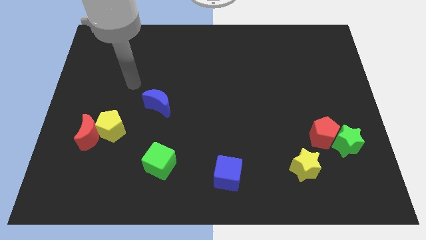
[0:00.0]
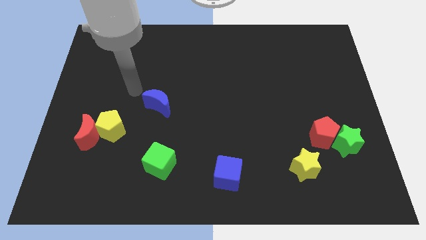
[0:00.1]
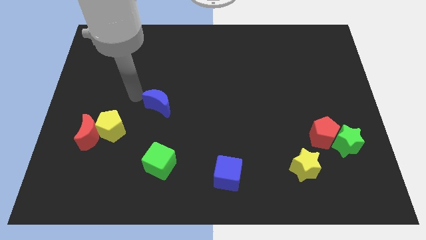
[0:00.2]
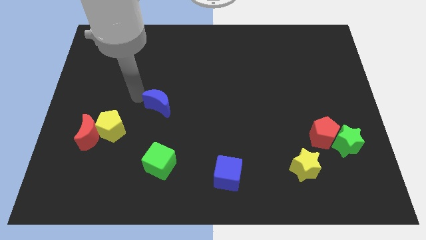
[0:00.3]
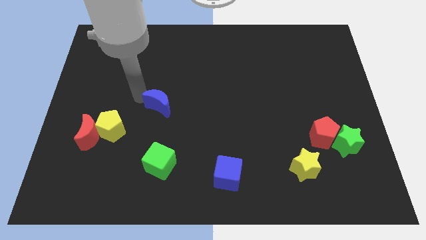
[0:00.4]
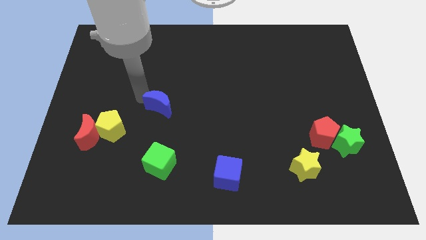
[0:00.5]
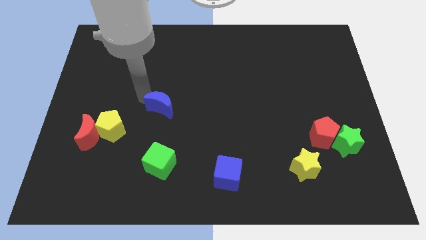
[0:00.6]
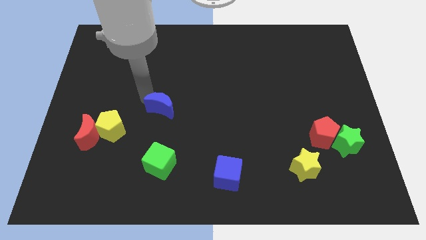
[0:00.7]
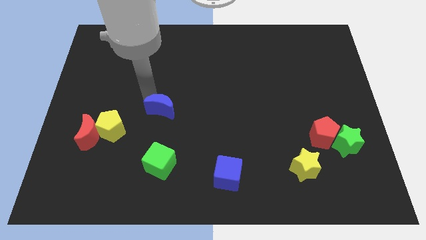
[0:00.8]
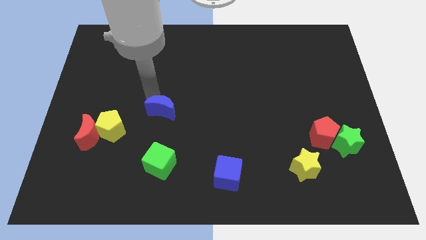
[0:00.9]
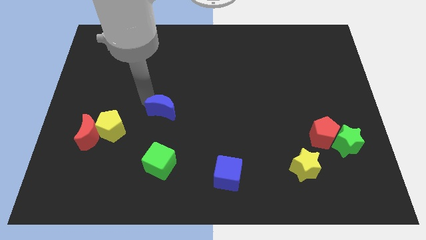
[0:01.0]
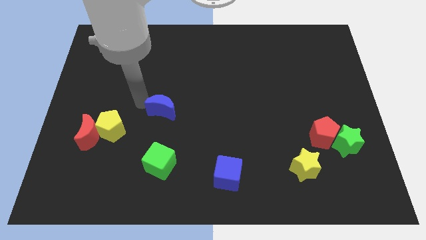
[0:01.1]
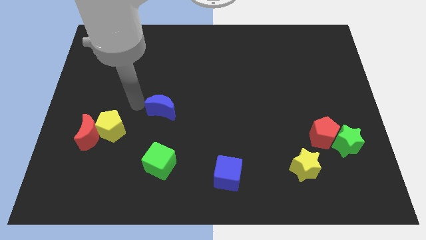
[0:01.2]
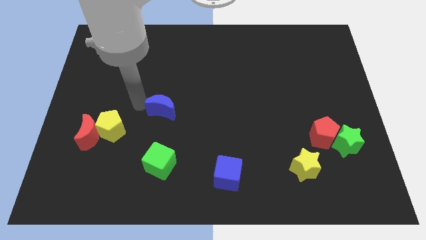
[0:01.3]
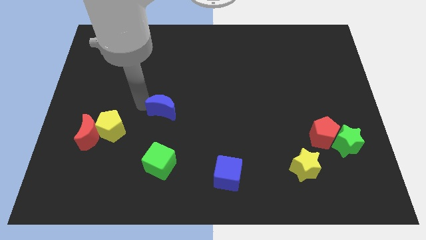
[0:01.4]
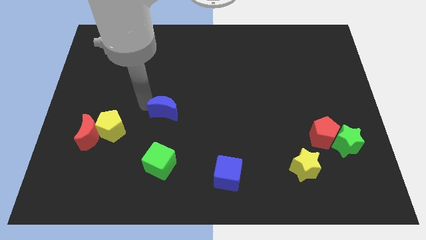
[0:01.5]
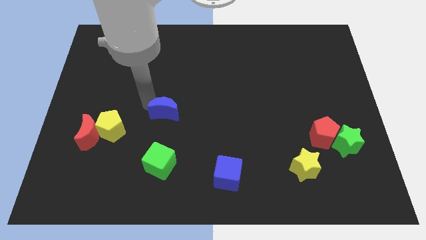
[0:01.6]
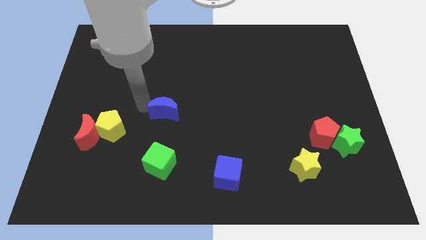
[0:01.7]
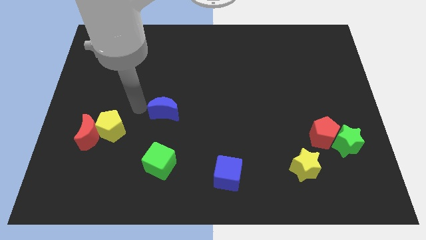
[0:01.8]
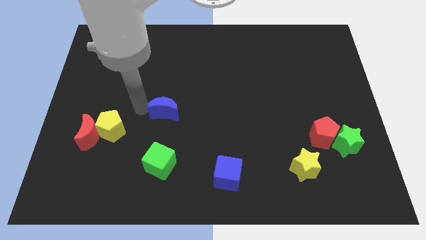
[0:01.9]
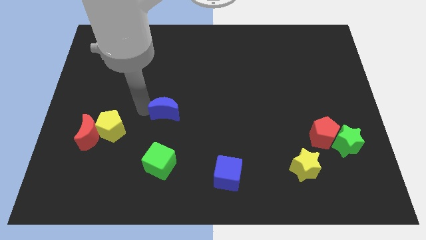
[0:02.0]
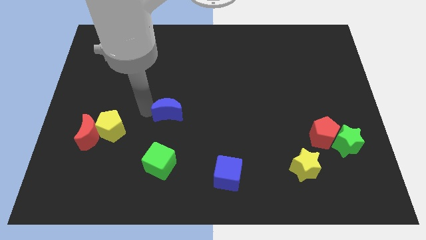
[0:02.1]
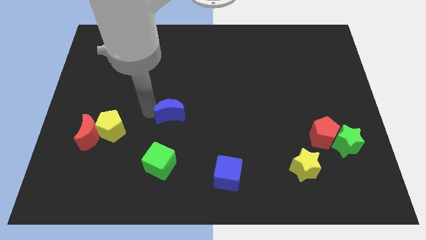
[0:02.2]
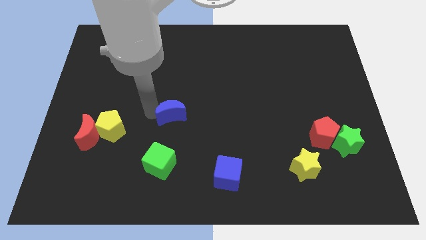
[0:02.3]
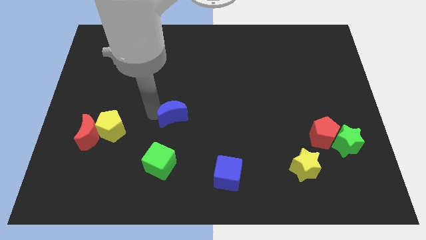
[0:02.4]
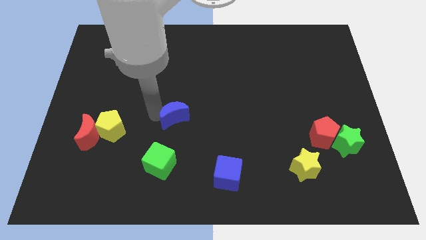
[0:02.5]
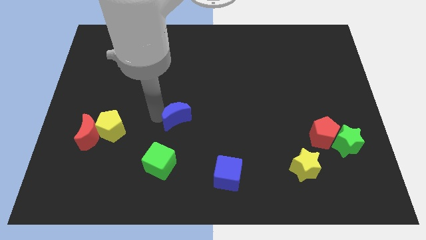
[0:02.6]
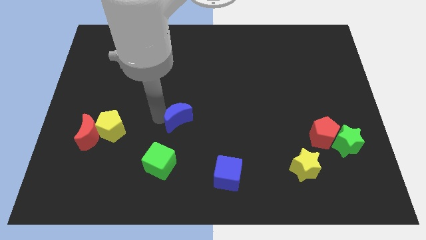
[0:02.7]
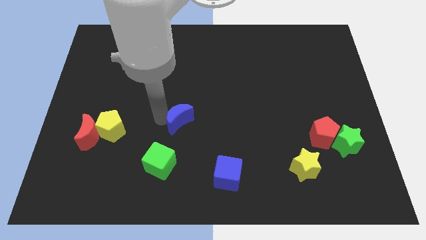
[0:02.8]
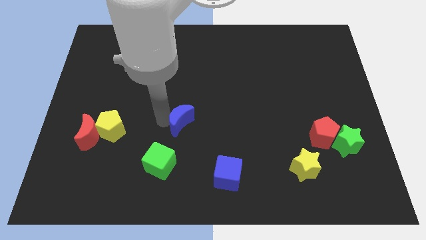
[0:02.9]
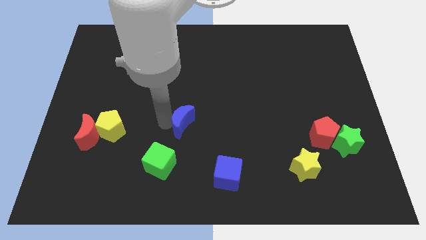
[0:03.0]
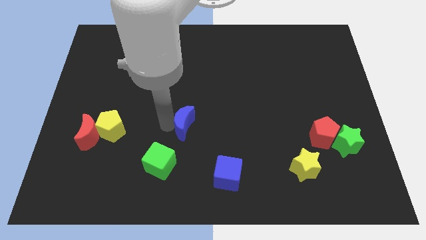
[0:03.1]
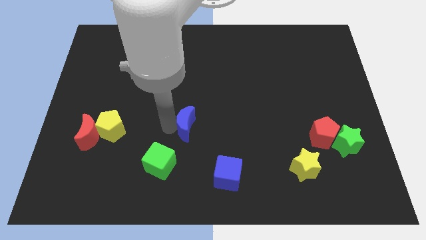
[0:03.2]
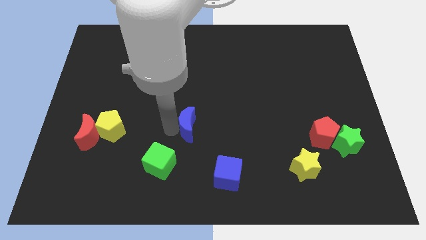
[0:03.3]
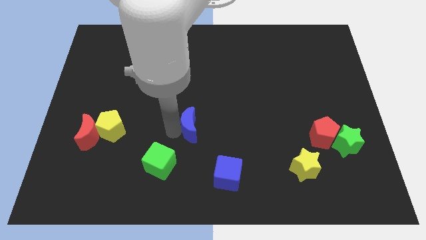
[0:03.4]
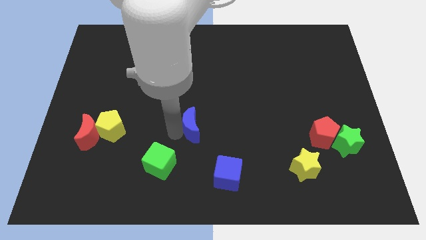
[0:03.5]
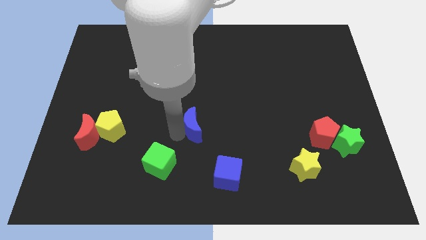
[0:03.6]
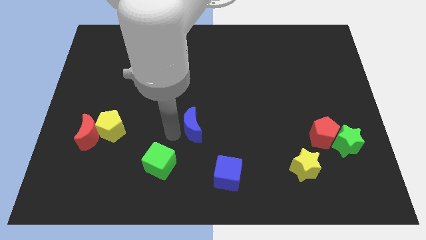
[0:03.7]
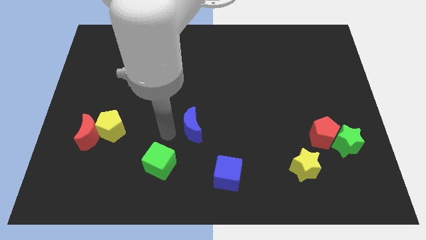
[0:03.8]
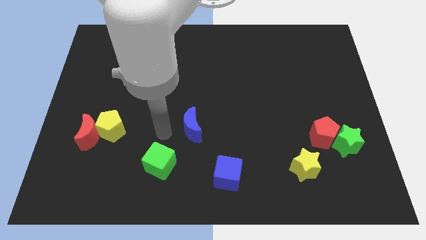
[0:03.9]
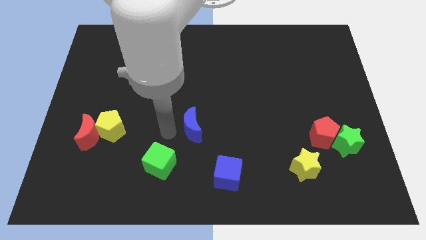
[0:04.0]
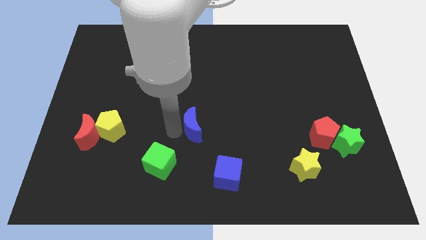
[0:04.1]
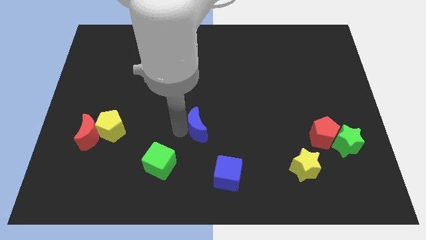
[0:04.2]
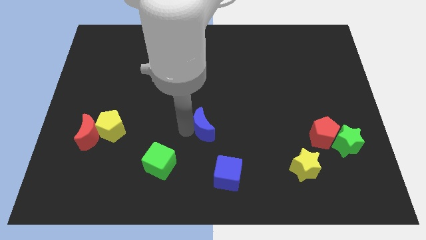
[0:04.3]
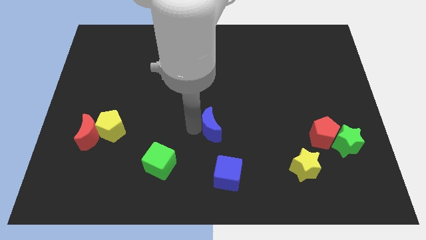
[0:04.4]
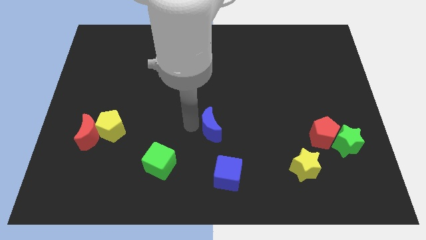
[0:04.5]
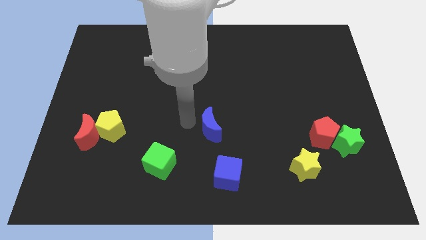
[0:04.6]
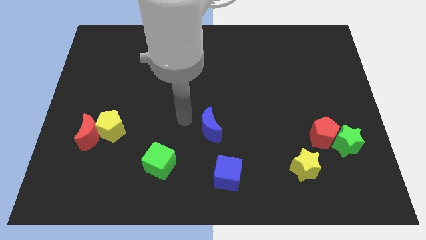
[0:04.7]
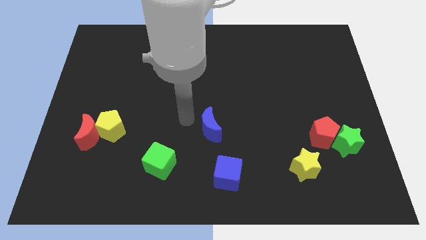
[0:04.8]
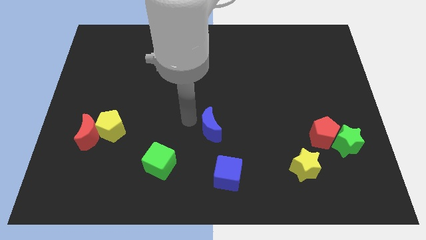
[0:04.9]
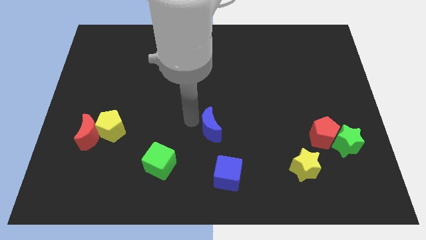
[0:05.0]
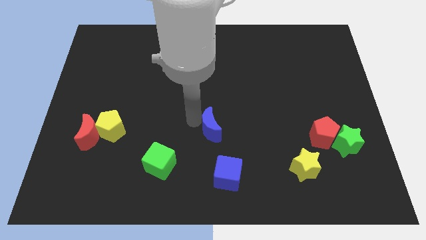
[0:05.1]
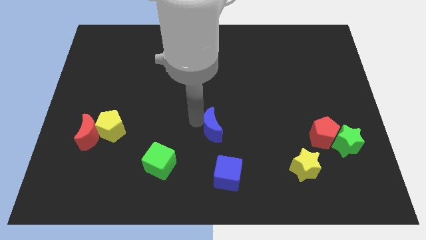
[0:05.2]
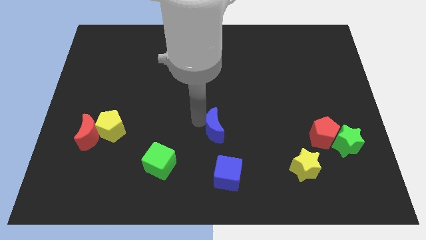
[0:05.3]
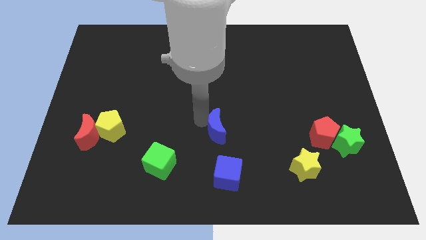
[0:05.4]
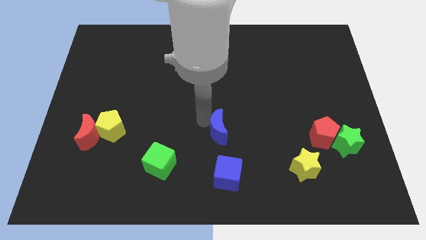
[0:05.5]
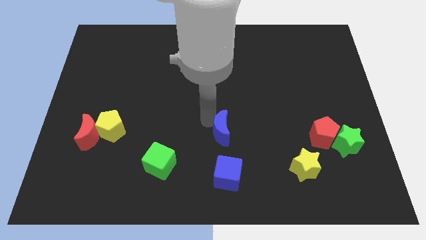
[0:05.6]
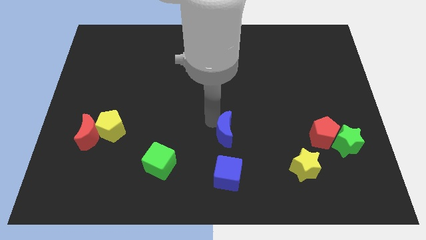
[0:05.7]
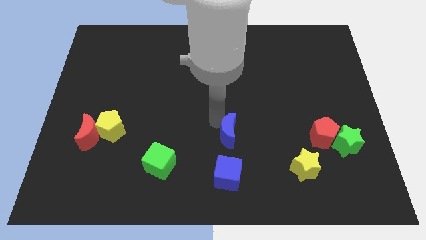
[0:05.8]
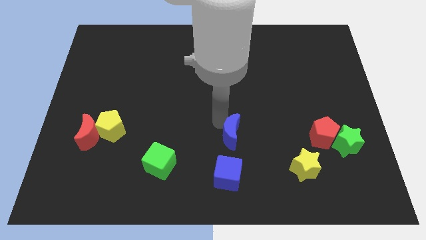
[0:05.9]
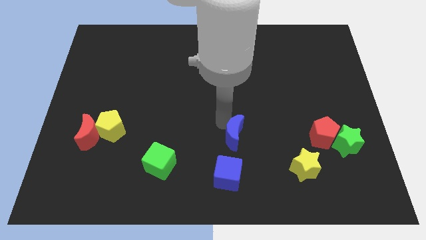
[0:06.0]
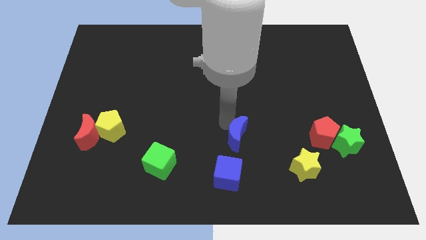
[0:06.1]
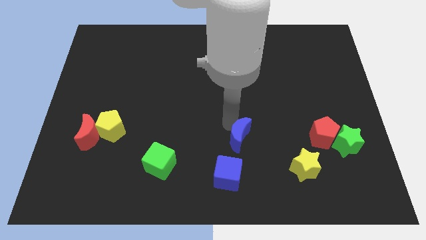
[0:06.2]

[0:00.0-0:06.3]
move the blue moon to the top right of the blue cube

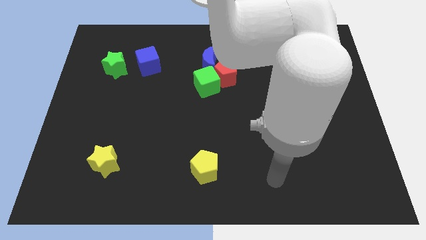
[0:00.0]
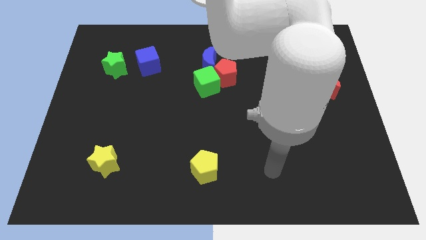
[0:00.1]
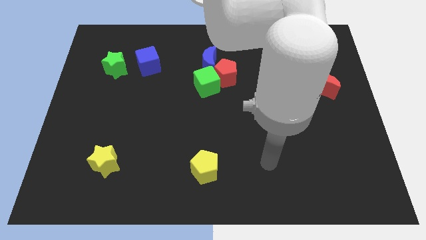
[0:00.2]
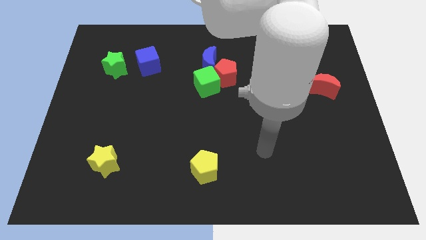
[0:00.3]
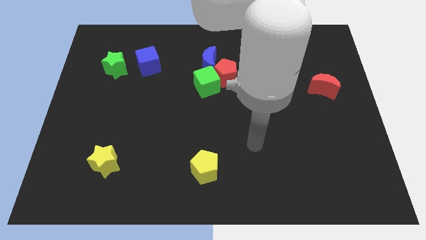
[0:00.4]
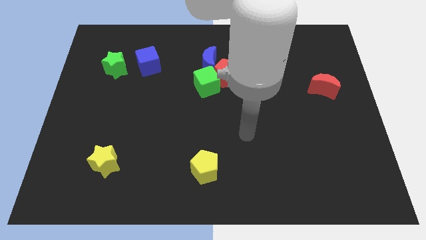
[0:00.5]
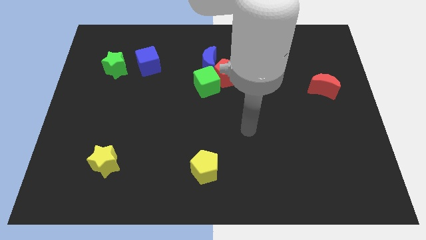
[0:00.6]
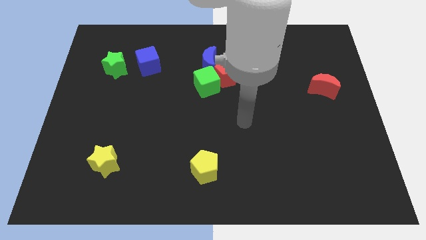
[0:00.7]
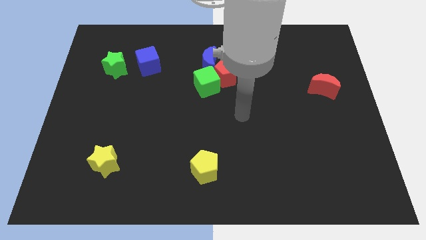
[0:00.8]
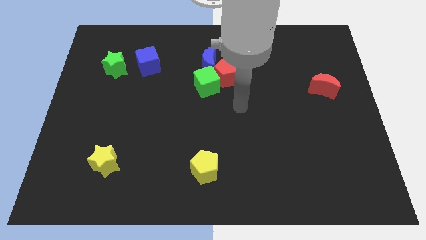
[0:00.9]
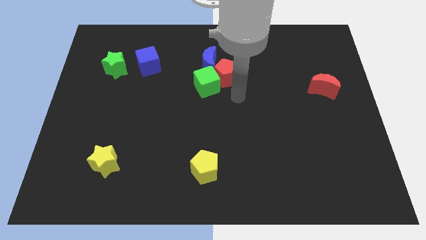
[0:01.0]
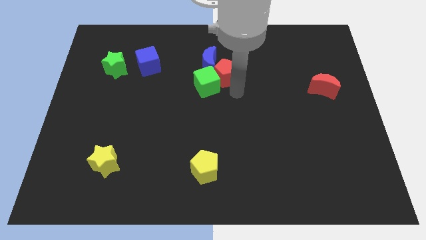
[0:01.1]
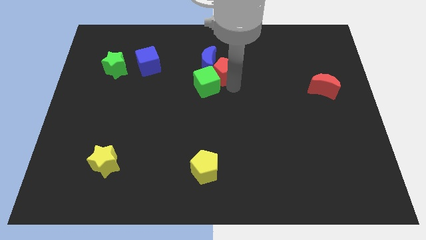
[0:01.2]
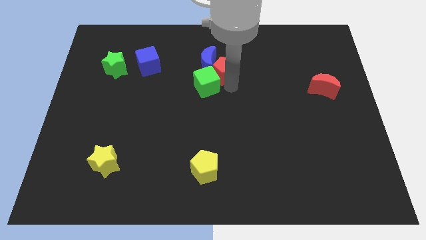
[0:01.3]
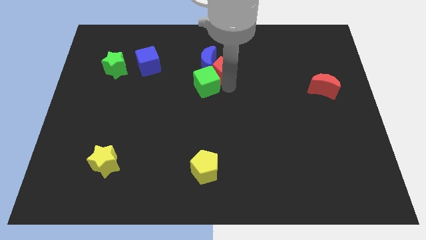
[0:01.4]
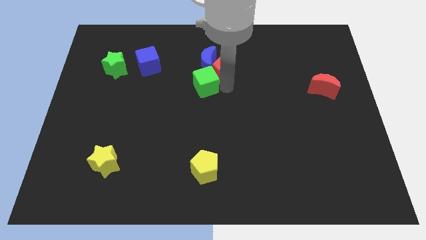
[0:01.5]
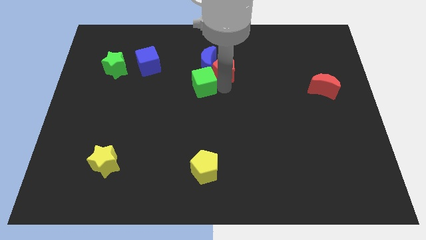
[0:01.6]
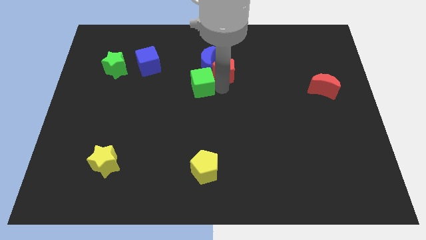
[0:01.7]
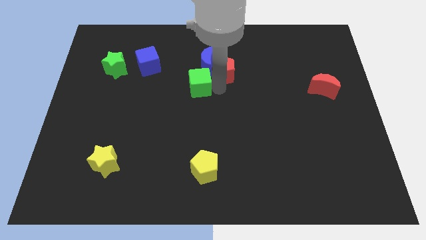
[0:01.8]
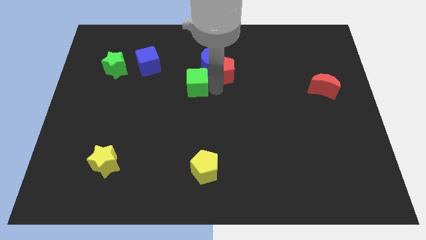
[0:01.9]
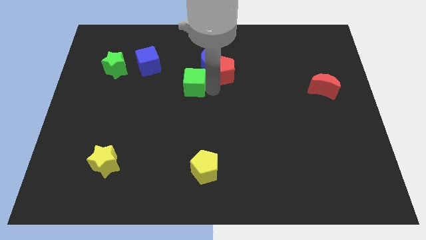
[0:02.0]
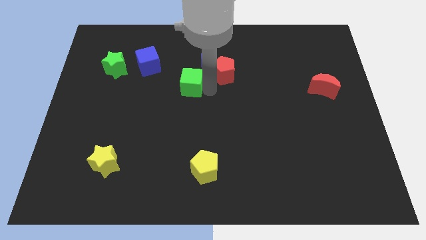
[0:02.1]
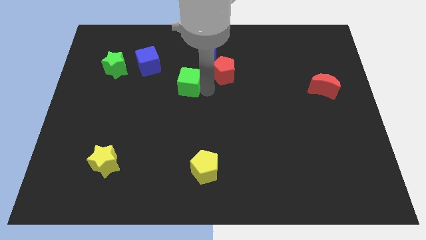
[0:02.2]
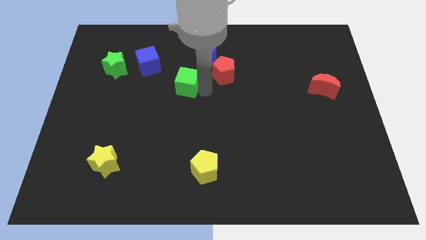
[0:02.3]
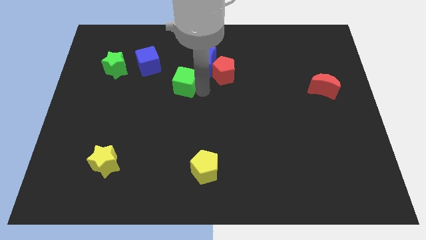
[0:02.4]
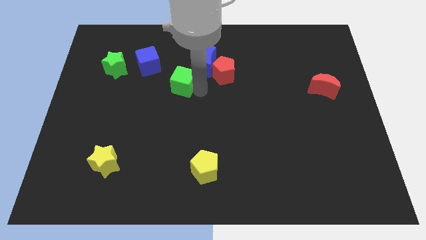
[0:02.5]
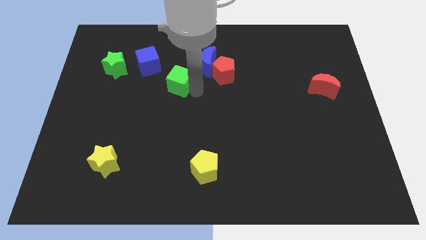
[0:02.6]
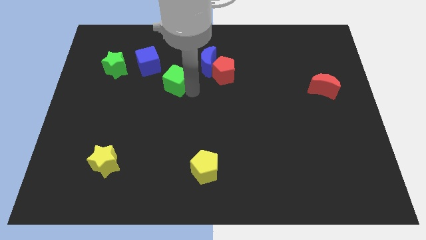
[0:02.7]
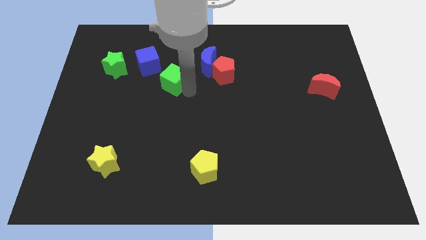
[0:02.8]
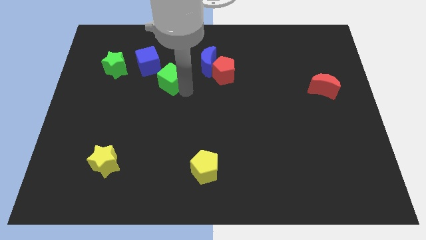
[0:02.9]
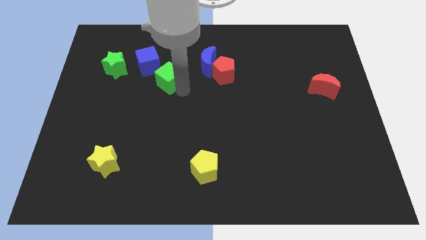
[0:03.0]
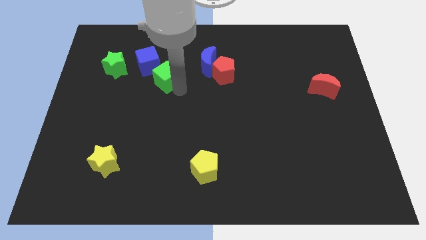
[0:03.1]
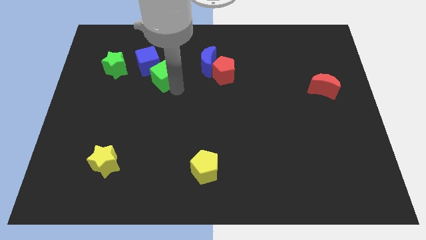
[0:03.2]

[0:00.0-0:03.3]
push the green cube to the left side of the blue moon
